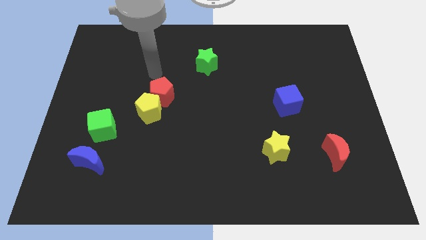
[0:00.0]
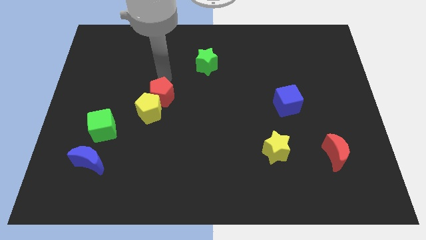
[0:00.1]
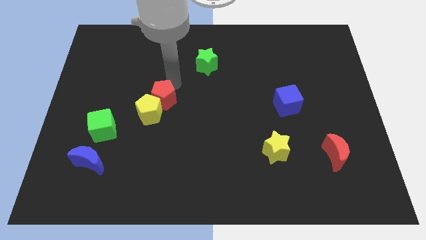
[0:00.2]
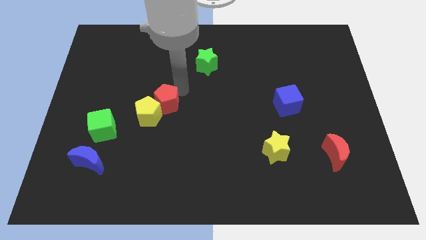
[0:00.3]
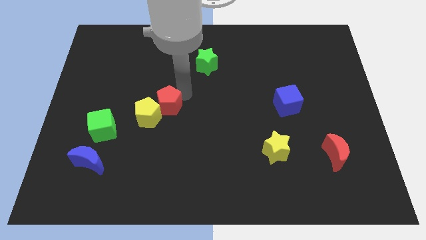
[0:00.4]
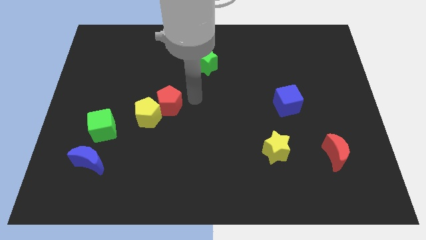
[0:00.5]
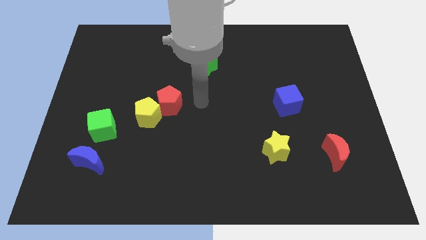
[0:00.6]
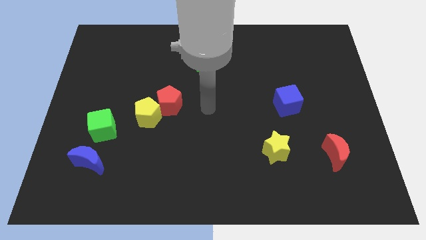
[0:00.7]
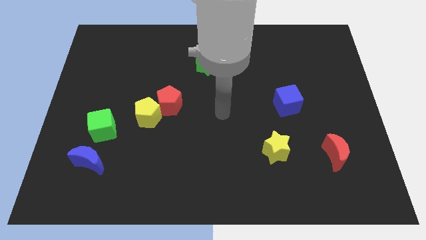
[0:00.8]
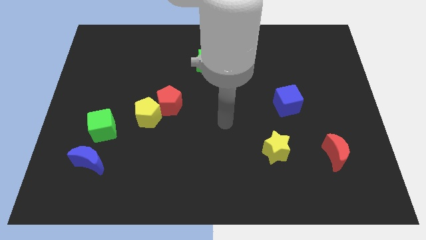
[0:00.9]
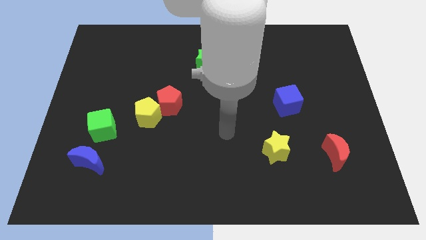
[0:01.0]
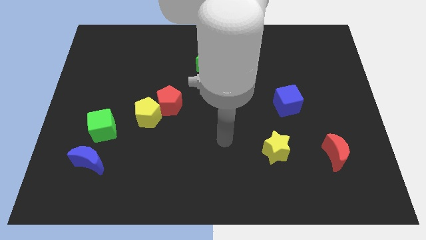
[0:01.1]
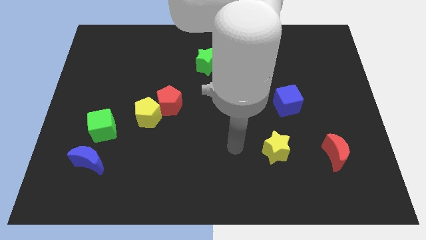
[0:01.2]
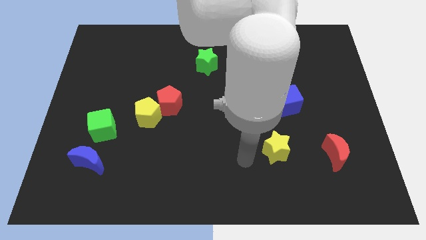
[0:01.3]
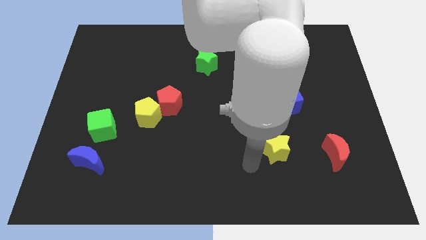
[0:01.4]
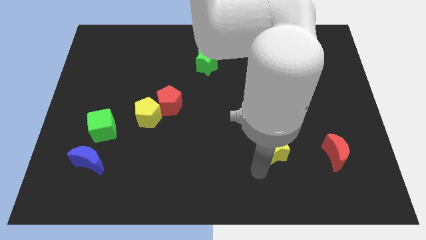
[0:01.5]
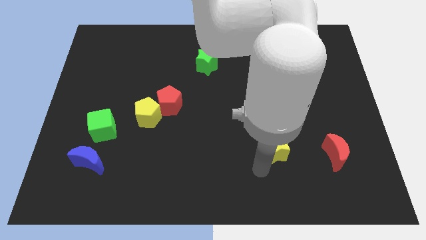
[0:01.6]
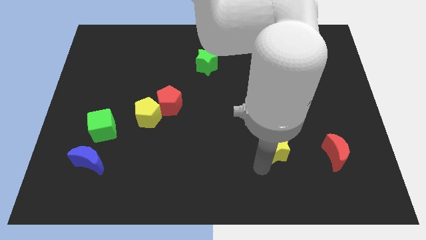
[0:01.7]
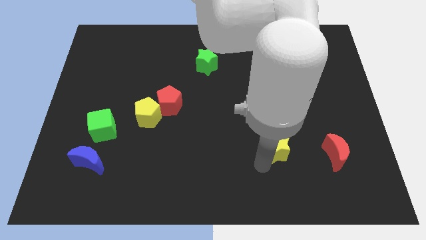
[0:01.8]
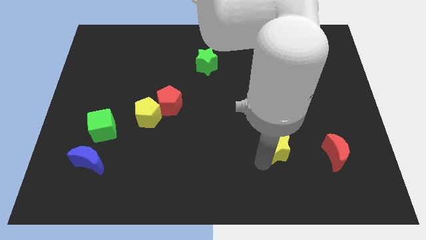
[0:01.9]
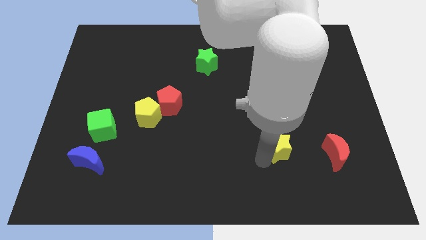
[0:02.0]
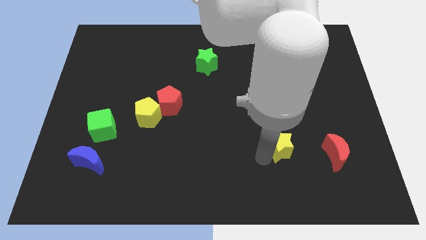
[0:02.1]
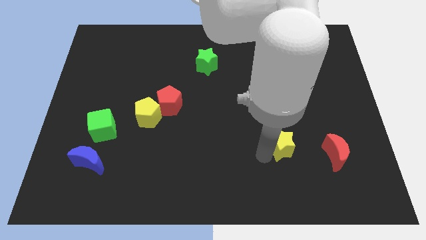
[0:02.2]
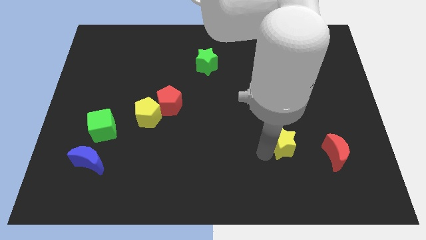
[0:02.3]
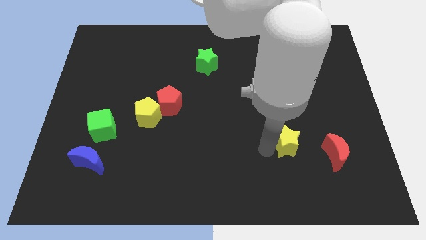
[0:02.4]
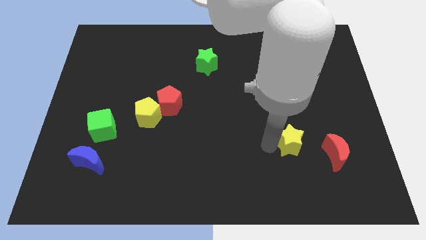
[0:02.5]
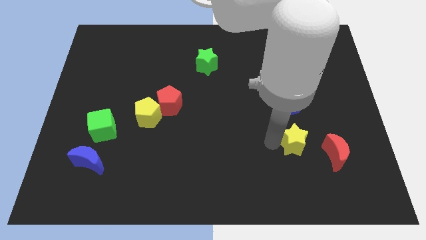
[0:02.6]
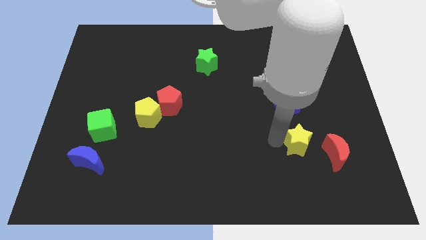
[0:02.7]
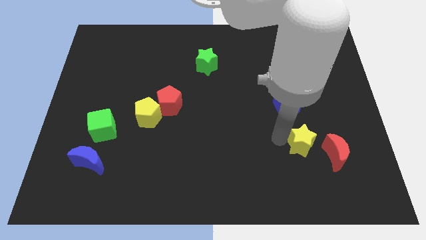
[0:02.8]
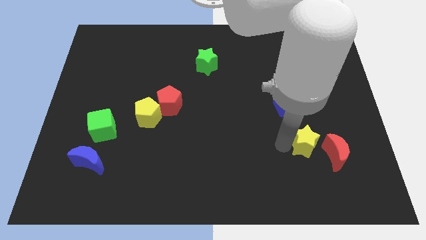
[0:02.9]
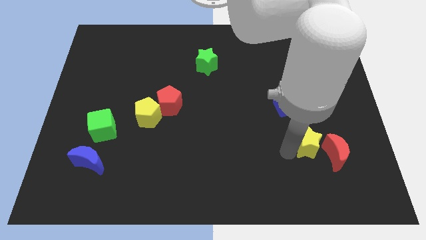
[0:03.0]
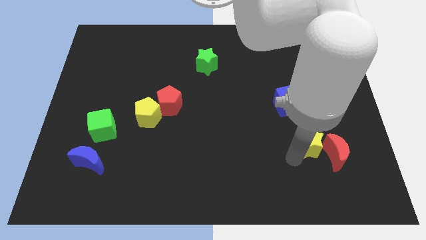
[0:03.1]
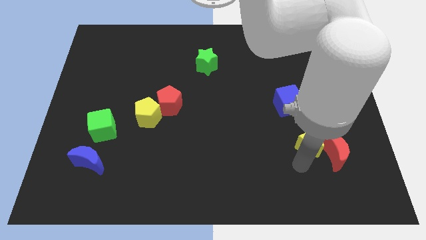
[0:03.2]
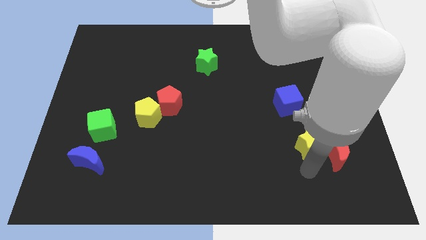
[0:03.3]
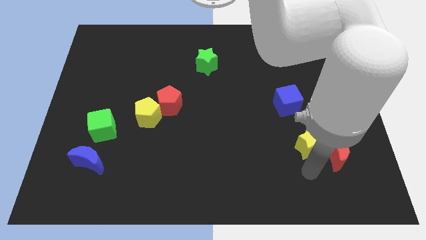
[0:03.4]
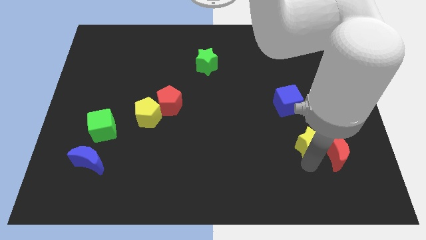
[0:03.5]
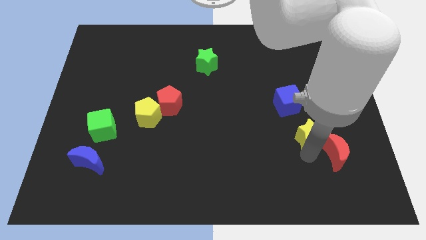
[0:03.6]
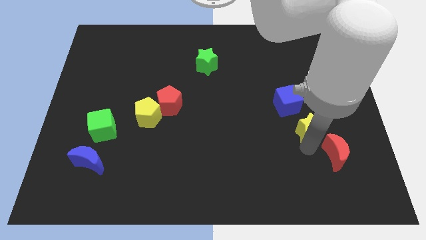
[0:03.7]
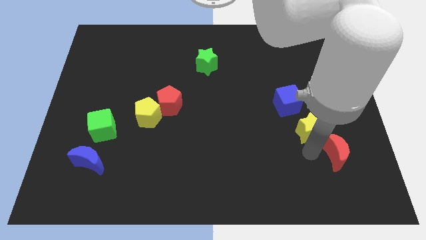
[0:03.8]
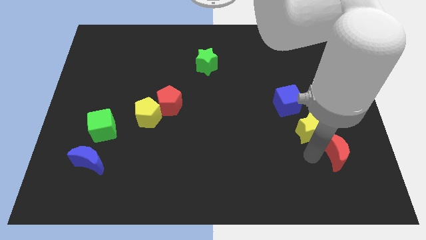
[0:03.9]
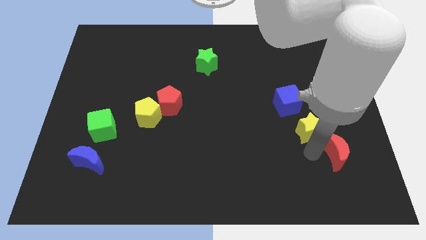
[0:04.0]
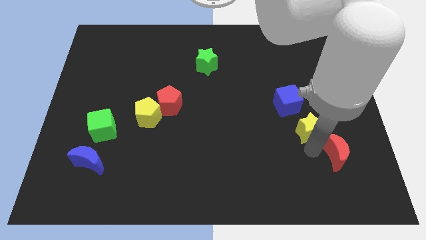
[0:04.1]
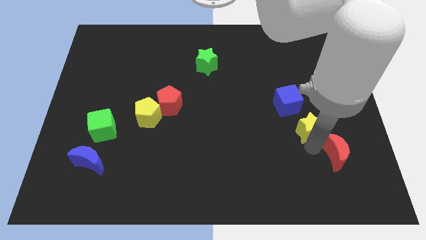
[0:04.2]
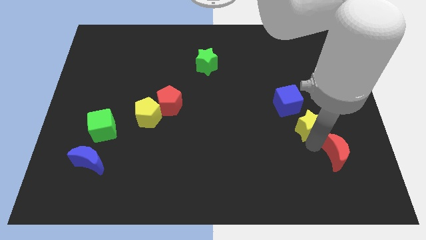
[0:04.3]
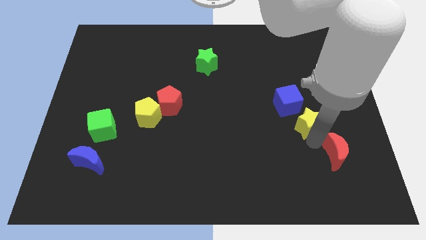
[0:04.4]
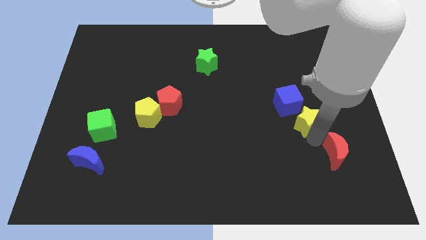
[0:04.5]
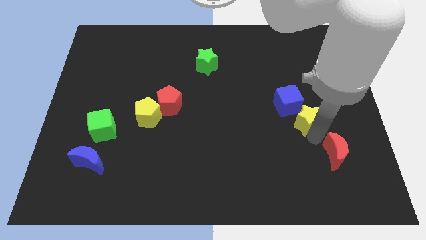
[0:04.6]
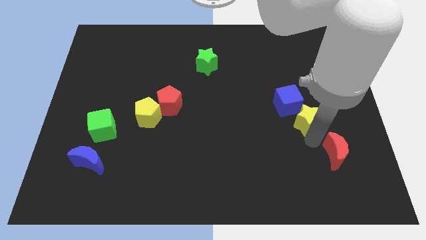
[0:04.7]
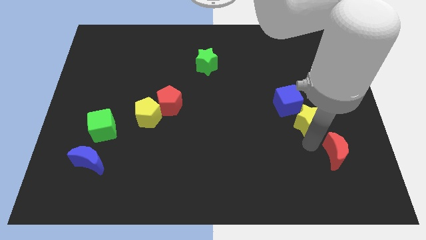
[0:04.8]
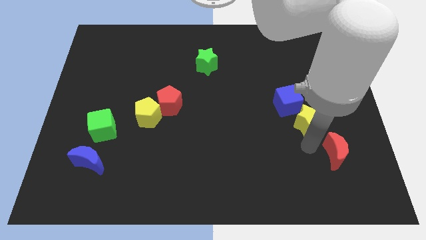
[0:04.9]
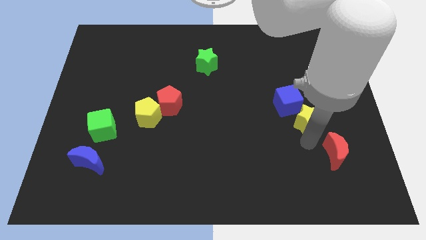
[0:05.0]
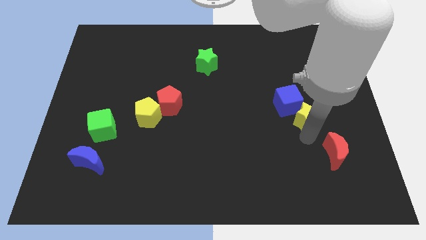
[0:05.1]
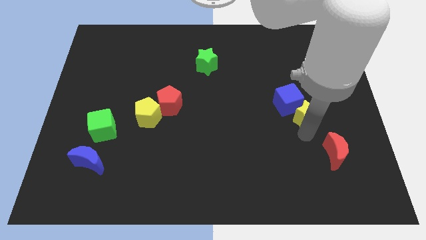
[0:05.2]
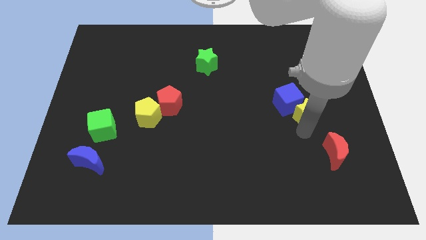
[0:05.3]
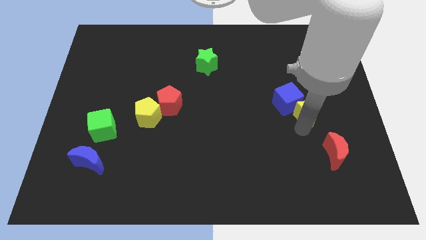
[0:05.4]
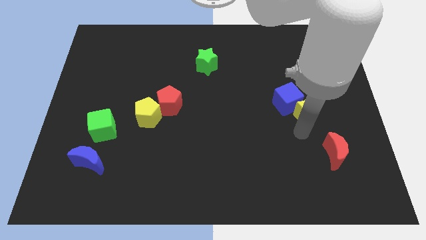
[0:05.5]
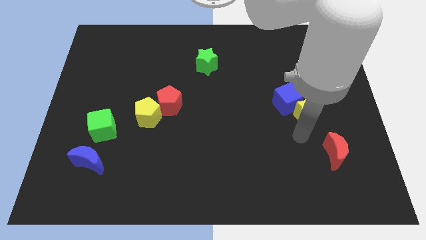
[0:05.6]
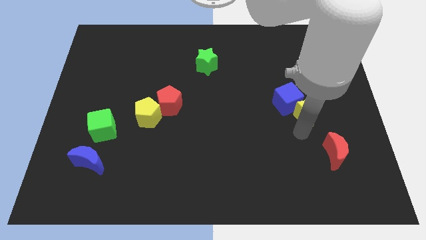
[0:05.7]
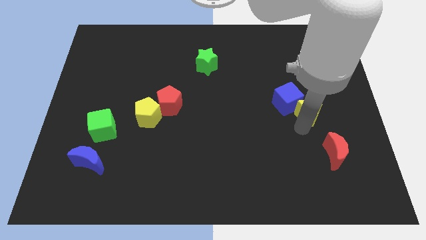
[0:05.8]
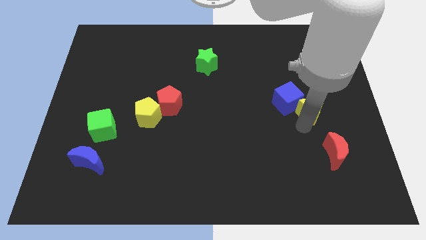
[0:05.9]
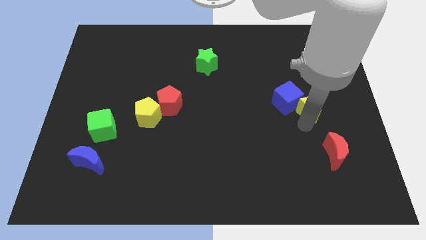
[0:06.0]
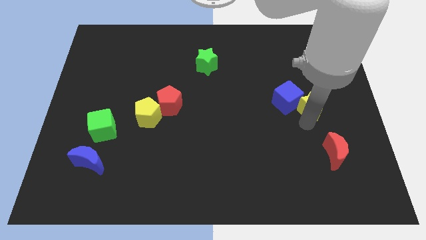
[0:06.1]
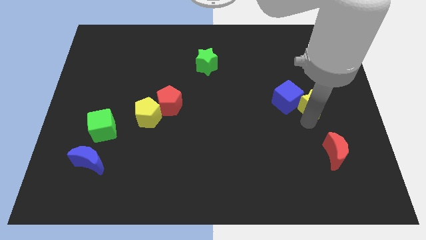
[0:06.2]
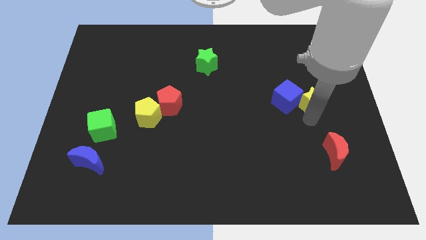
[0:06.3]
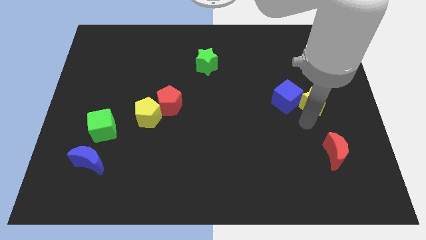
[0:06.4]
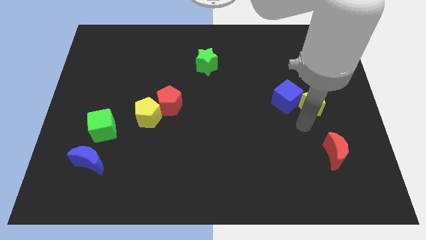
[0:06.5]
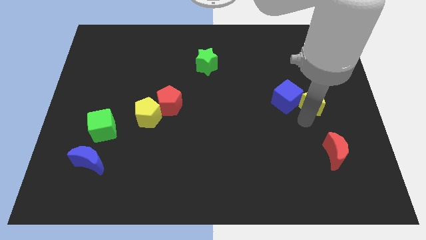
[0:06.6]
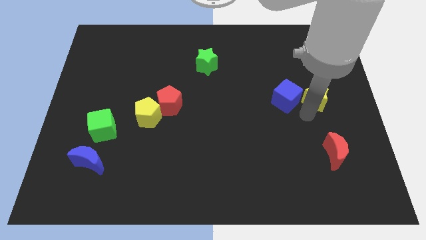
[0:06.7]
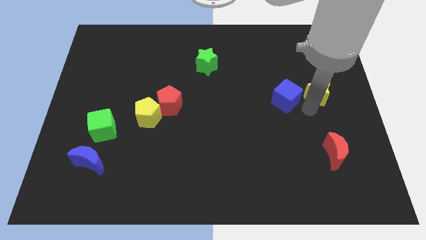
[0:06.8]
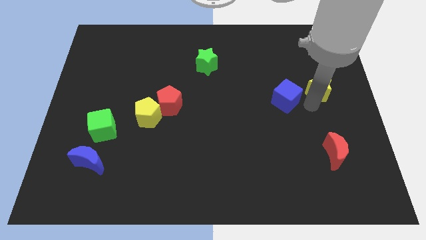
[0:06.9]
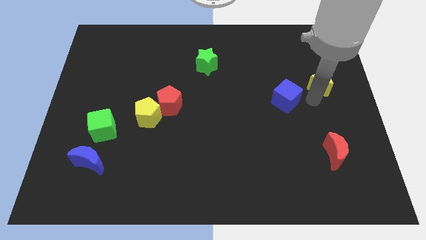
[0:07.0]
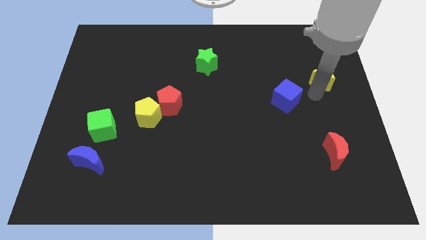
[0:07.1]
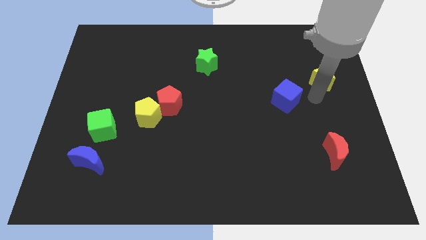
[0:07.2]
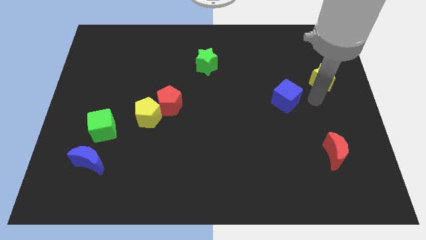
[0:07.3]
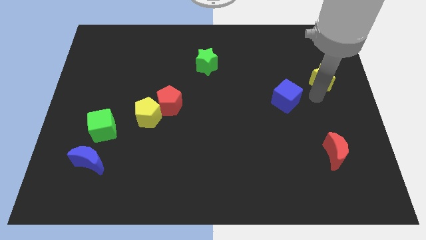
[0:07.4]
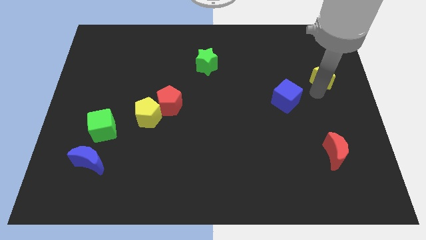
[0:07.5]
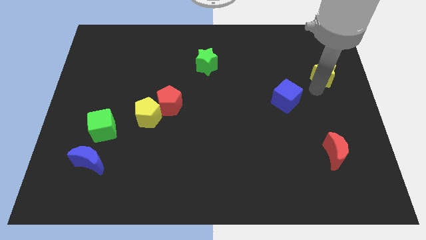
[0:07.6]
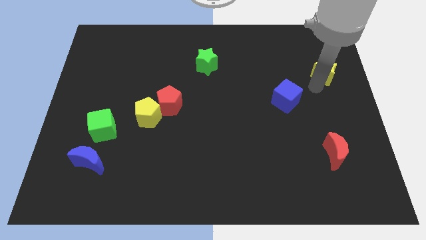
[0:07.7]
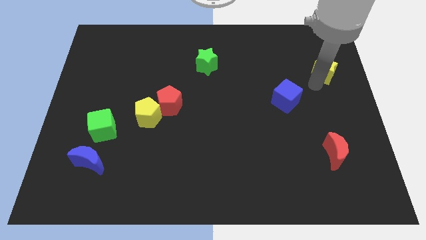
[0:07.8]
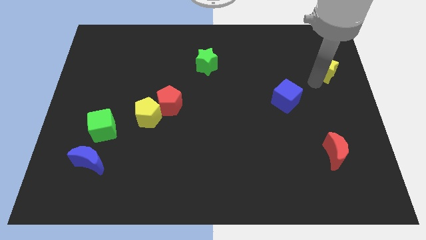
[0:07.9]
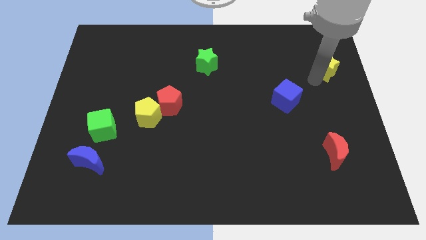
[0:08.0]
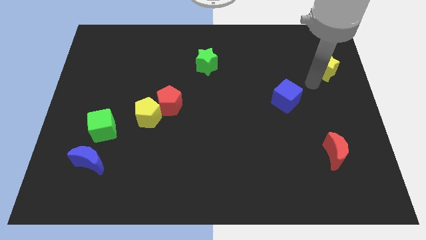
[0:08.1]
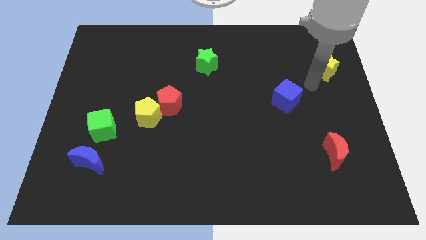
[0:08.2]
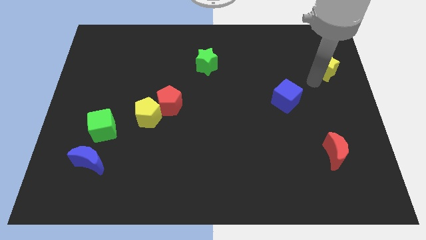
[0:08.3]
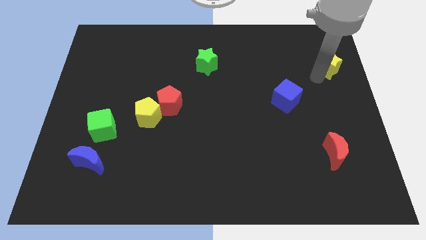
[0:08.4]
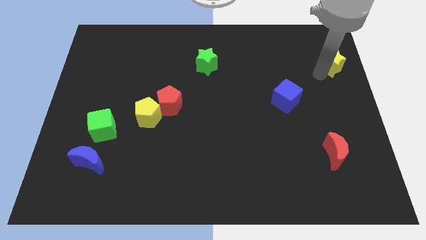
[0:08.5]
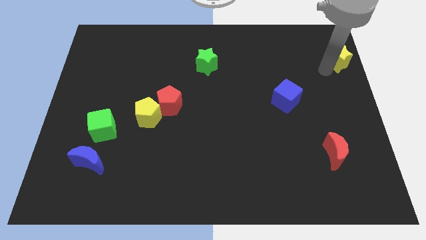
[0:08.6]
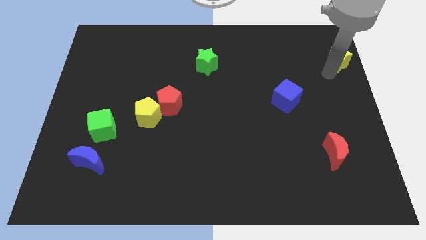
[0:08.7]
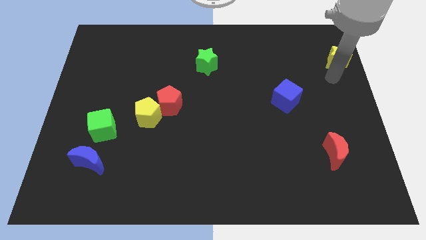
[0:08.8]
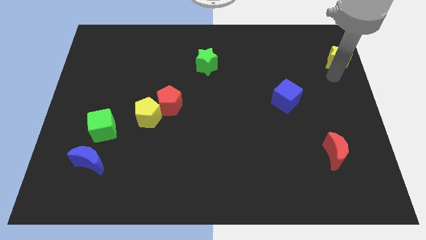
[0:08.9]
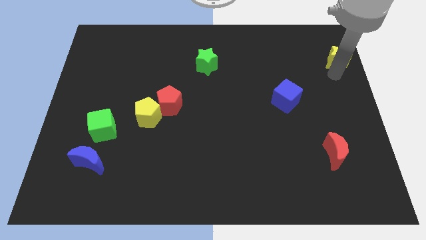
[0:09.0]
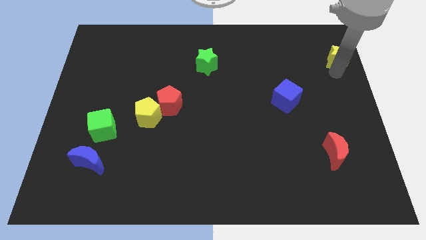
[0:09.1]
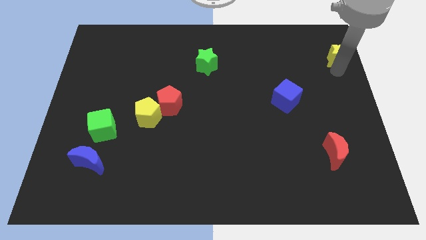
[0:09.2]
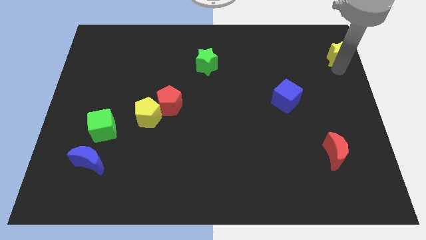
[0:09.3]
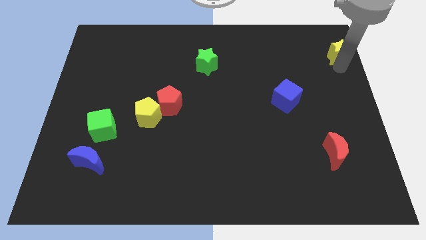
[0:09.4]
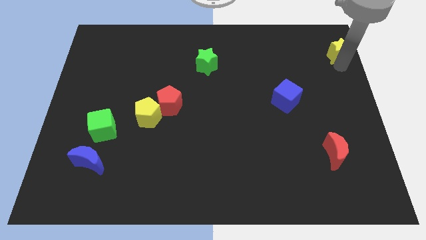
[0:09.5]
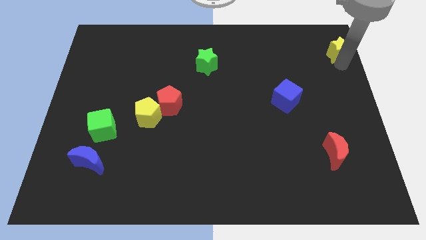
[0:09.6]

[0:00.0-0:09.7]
move the yellow star to the upper right corner
